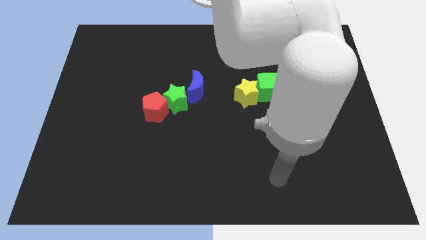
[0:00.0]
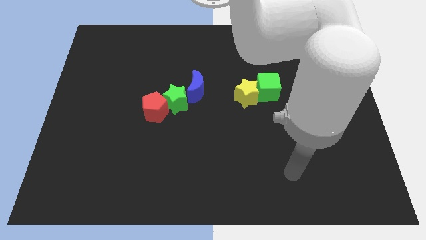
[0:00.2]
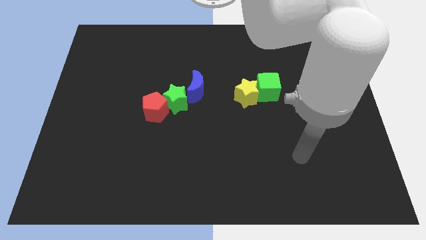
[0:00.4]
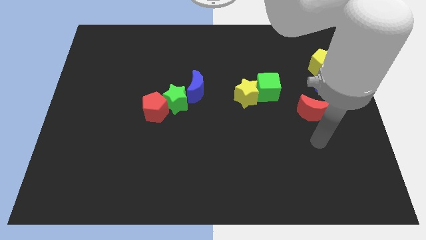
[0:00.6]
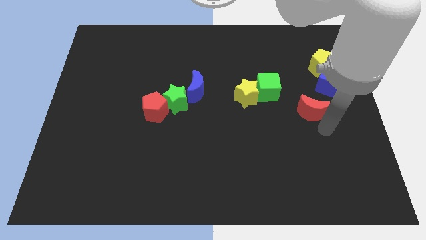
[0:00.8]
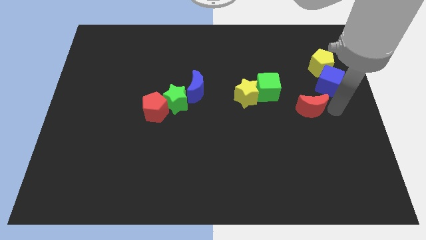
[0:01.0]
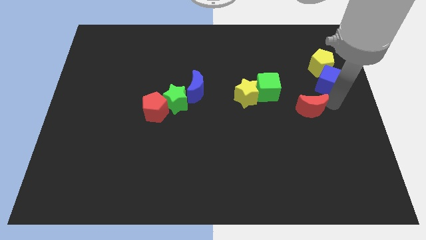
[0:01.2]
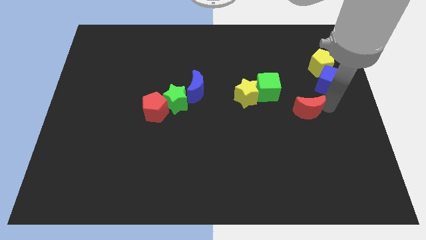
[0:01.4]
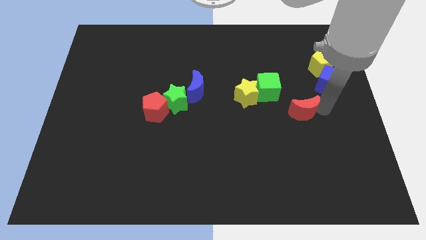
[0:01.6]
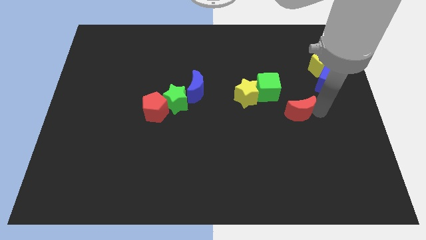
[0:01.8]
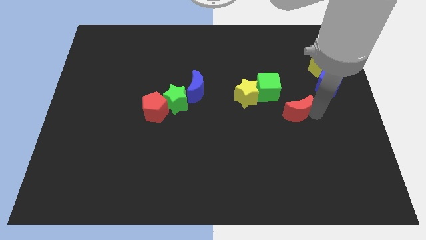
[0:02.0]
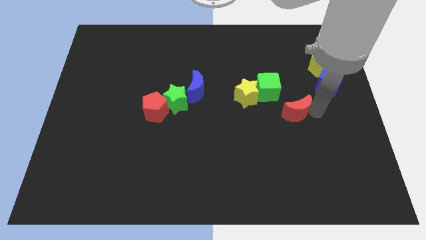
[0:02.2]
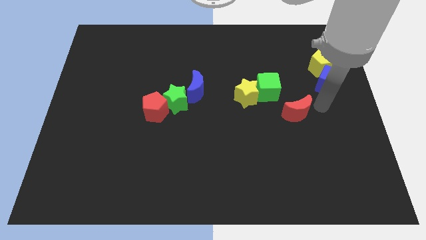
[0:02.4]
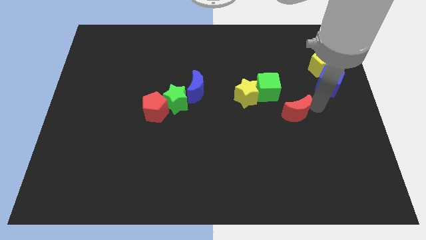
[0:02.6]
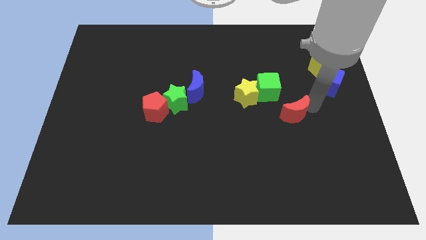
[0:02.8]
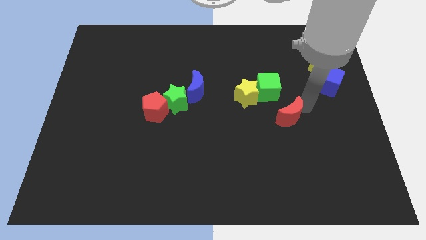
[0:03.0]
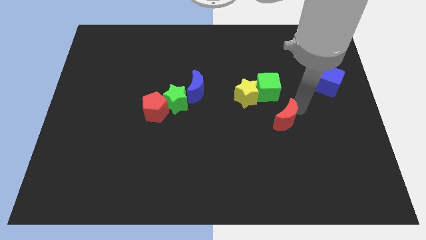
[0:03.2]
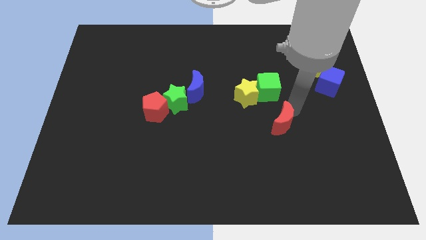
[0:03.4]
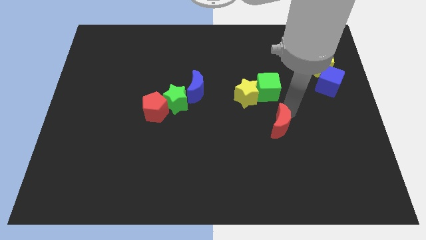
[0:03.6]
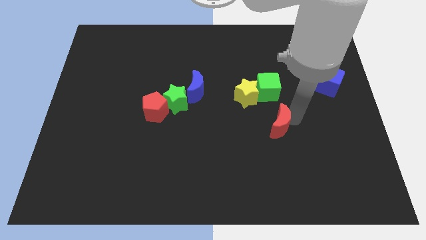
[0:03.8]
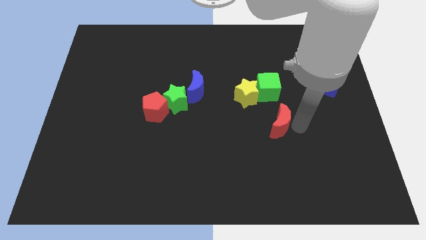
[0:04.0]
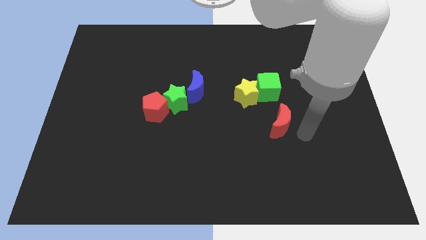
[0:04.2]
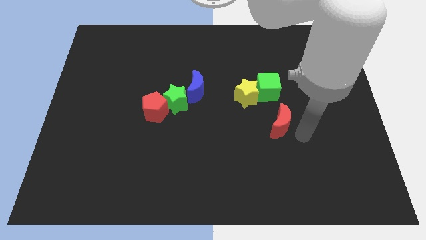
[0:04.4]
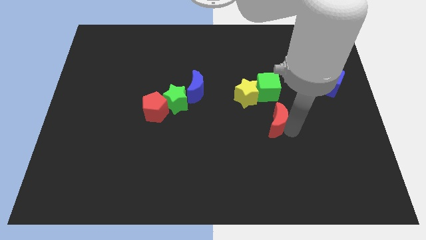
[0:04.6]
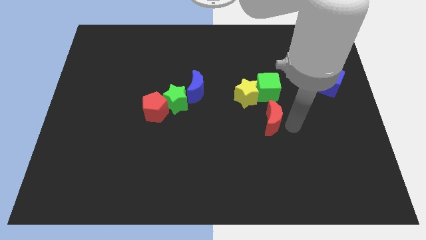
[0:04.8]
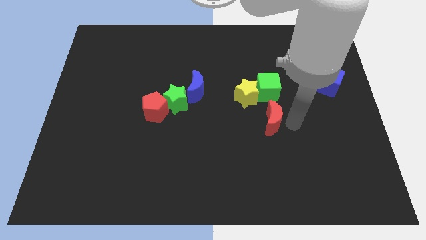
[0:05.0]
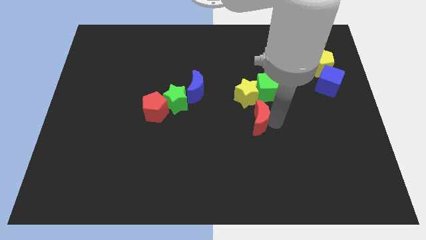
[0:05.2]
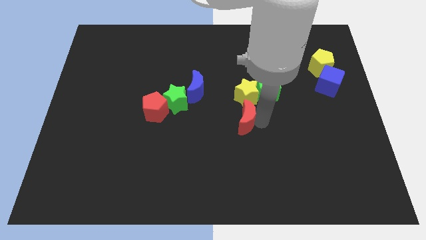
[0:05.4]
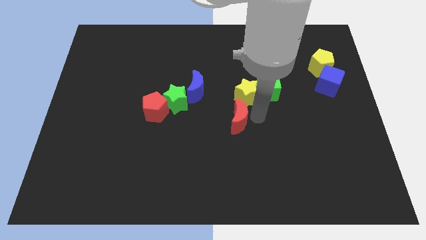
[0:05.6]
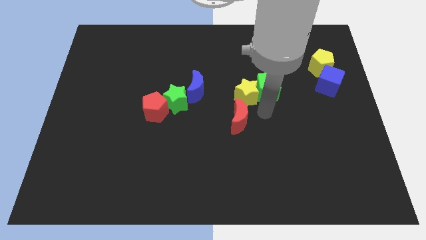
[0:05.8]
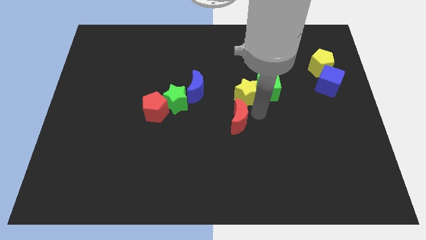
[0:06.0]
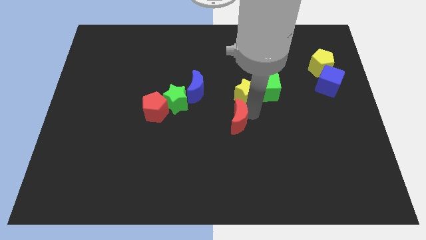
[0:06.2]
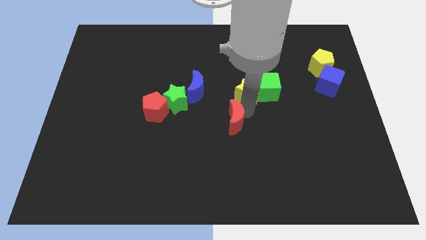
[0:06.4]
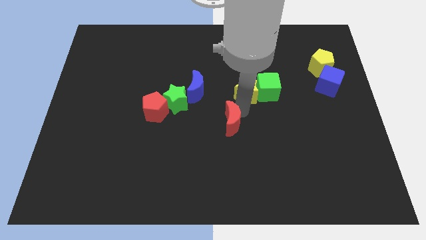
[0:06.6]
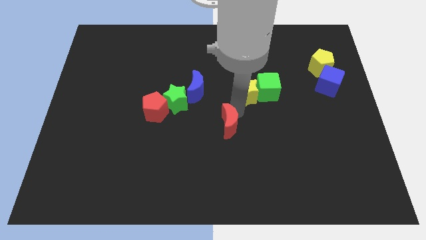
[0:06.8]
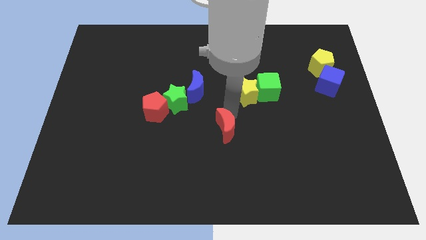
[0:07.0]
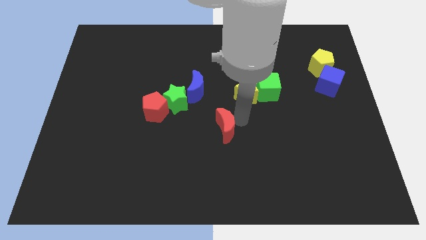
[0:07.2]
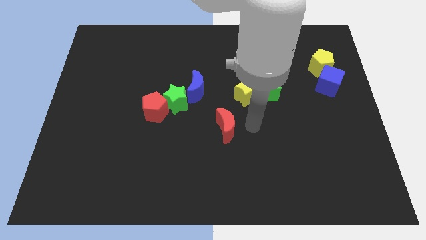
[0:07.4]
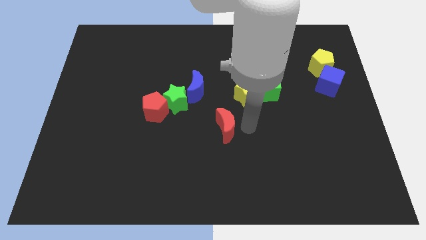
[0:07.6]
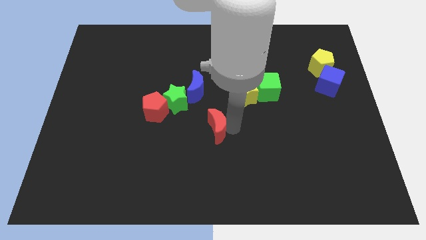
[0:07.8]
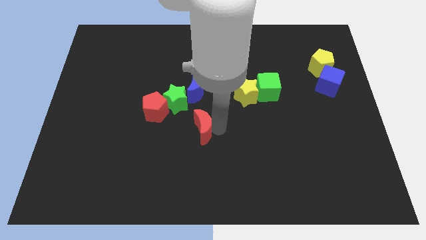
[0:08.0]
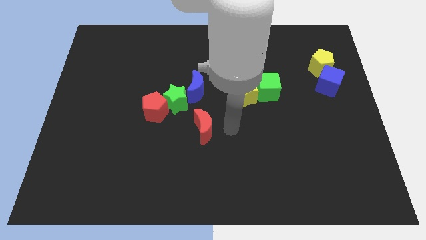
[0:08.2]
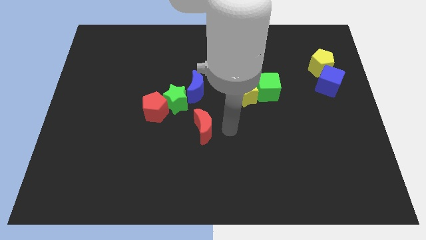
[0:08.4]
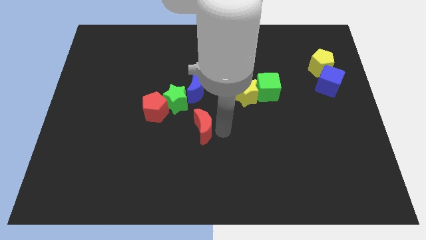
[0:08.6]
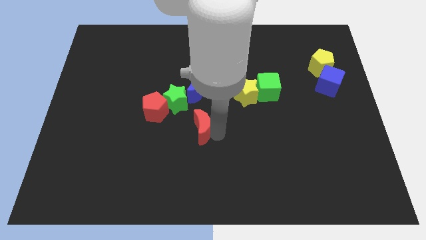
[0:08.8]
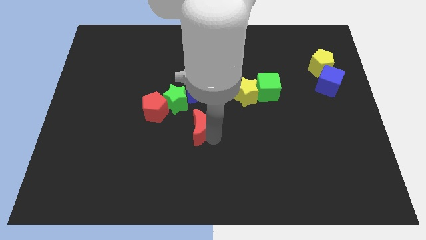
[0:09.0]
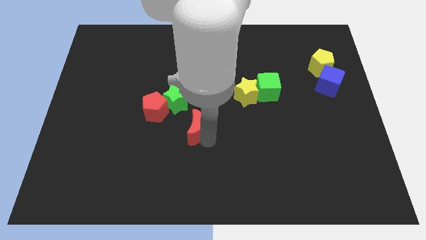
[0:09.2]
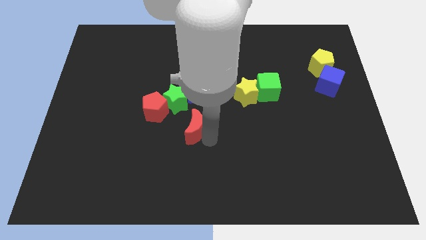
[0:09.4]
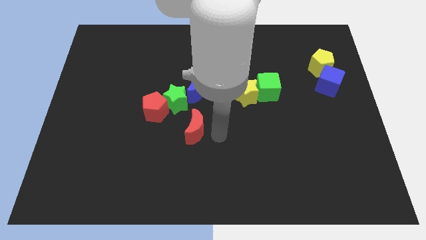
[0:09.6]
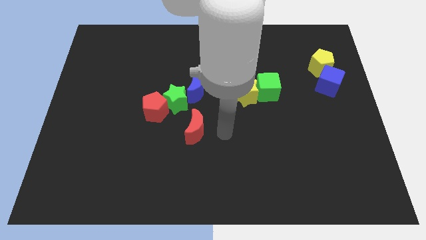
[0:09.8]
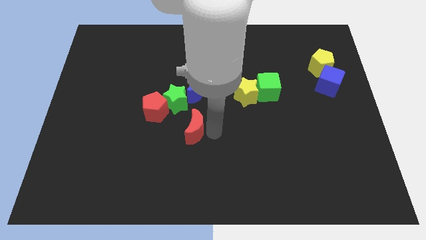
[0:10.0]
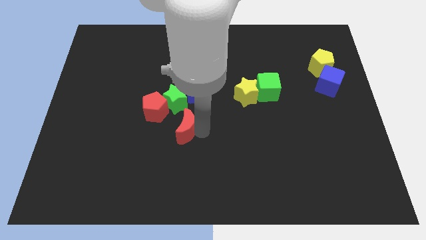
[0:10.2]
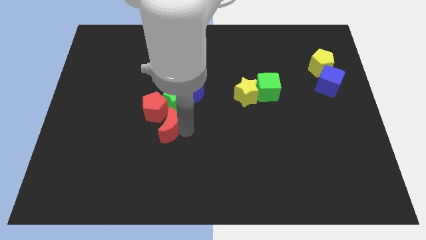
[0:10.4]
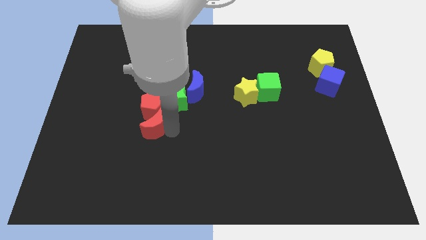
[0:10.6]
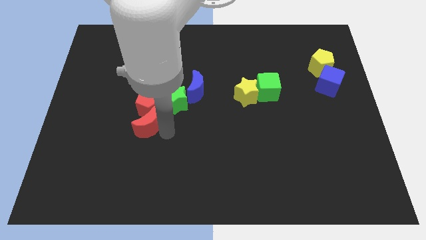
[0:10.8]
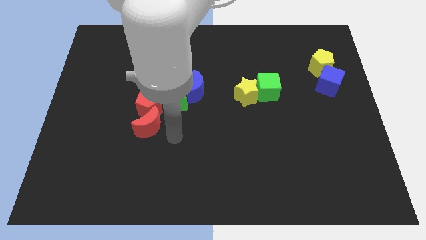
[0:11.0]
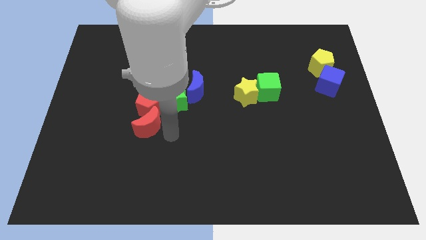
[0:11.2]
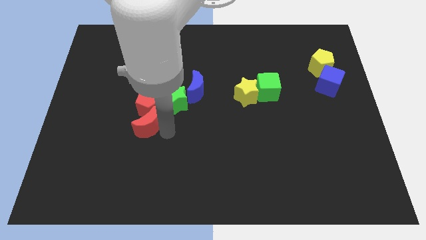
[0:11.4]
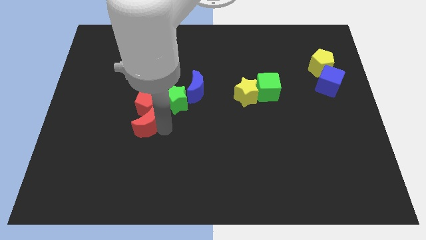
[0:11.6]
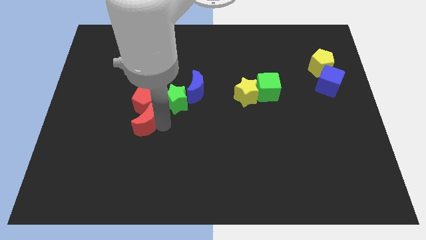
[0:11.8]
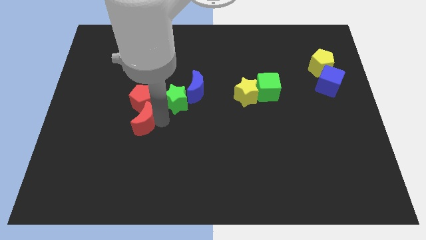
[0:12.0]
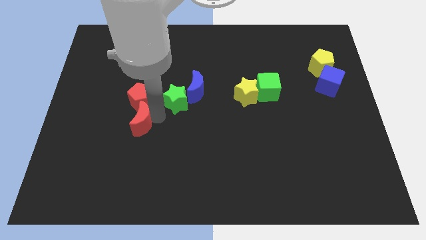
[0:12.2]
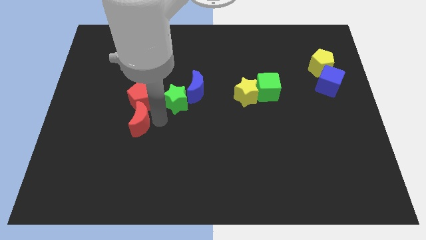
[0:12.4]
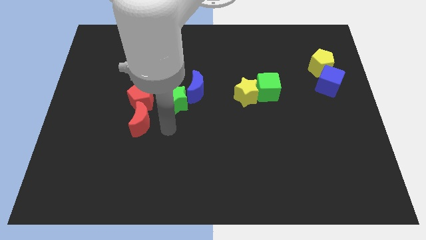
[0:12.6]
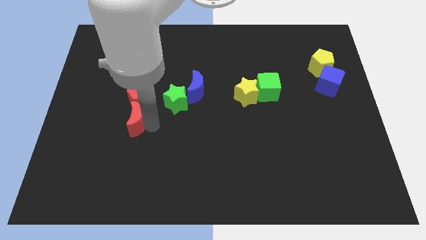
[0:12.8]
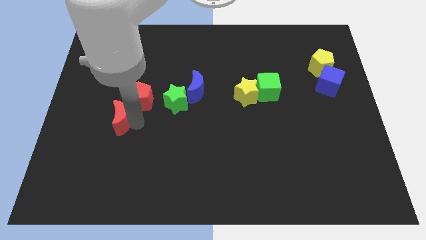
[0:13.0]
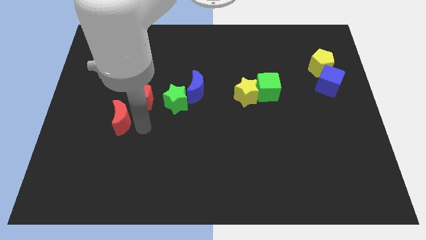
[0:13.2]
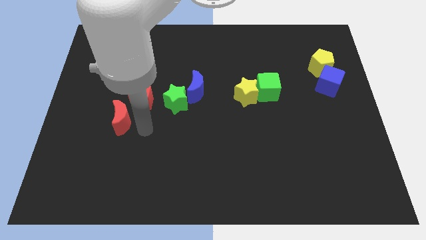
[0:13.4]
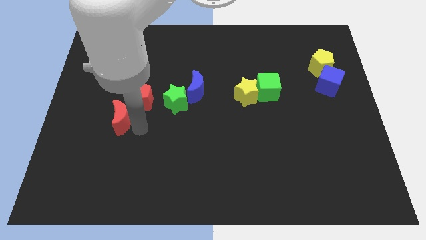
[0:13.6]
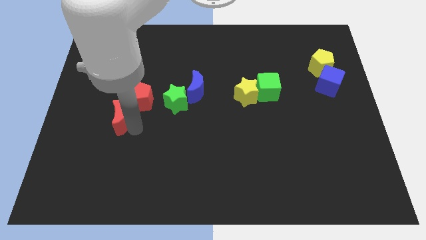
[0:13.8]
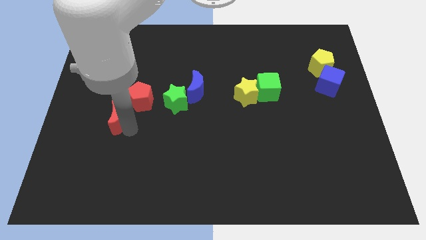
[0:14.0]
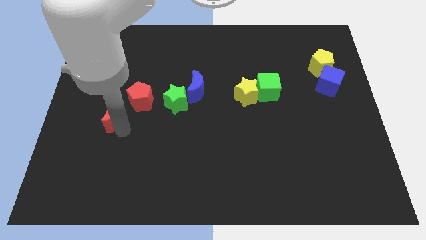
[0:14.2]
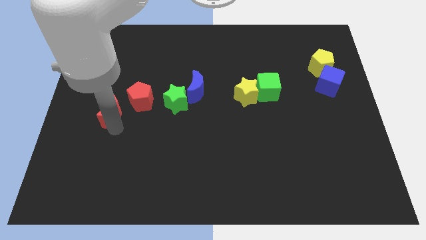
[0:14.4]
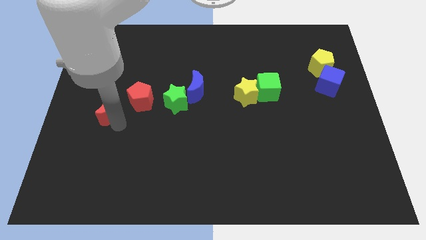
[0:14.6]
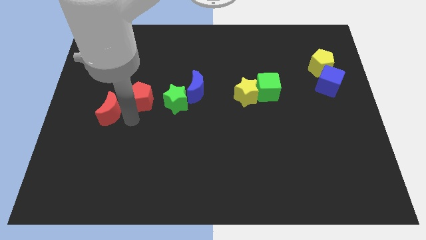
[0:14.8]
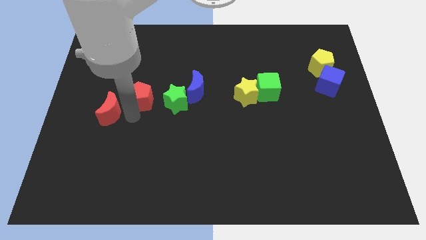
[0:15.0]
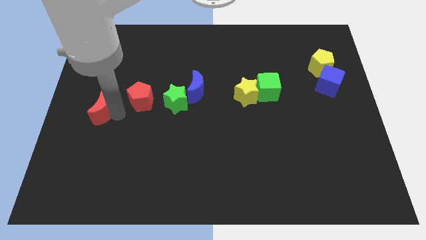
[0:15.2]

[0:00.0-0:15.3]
put the red moon to the left side of the board
